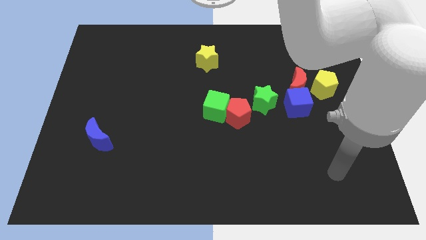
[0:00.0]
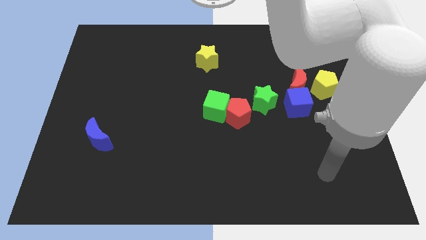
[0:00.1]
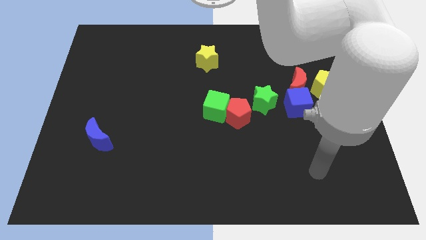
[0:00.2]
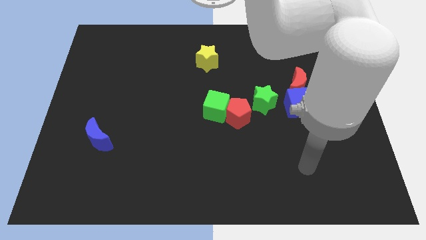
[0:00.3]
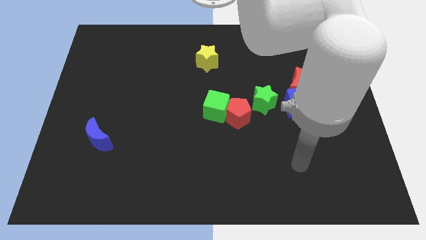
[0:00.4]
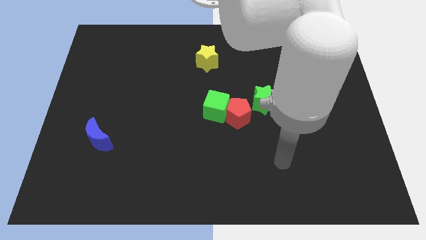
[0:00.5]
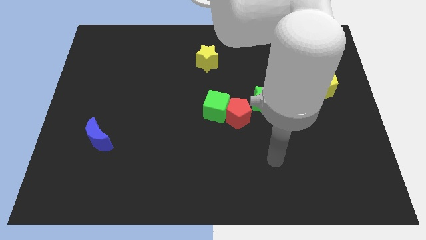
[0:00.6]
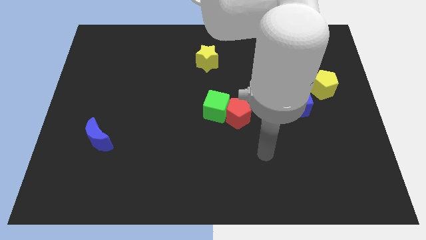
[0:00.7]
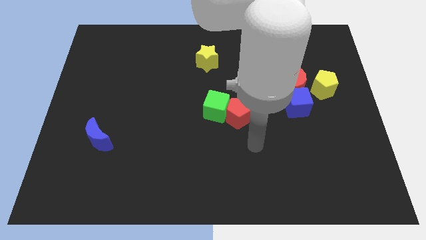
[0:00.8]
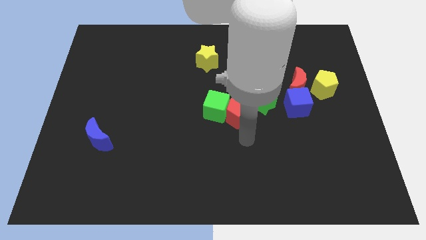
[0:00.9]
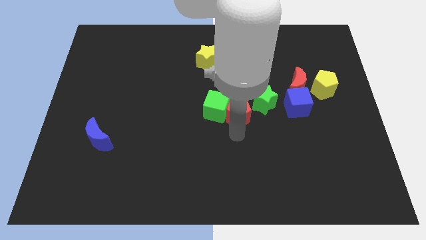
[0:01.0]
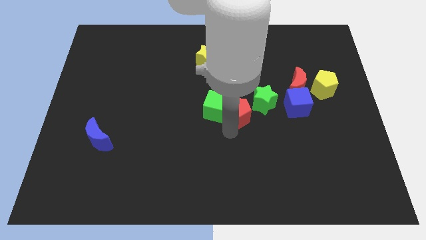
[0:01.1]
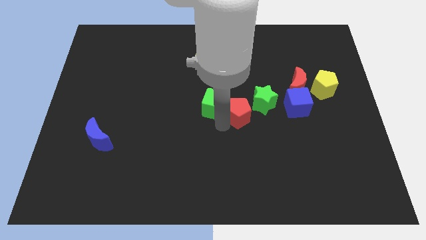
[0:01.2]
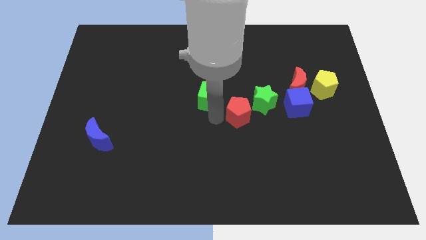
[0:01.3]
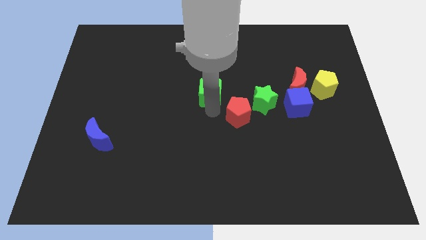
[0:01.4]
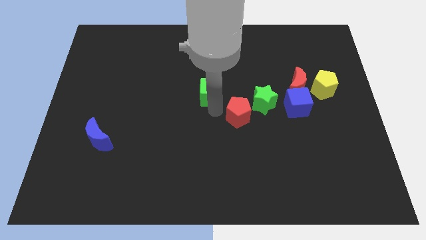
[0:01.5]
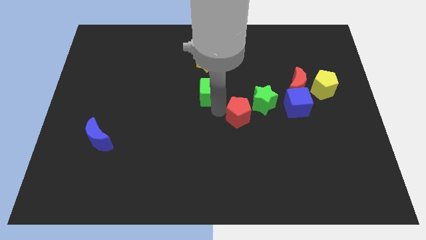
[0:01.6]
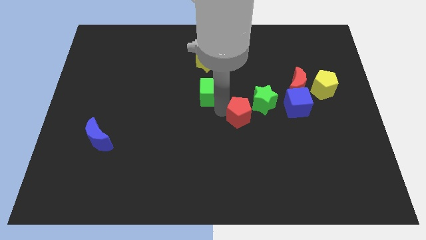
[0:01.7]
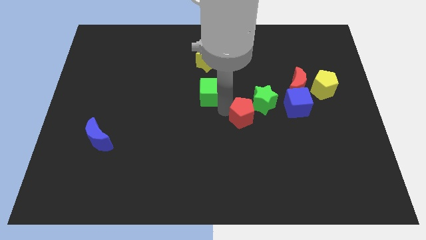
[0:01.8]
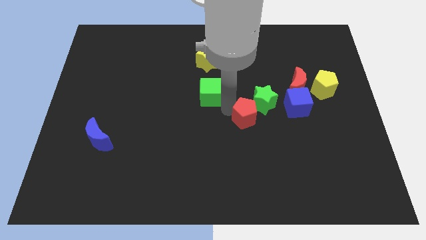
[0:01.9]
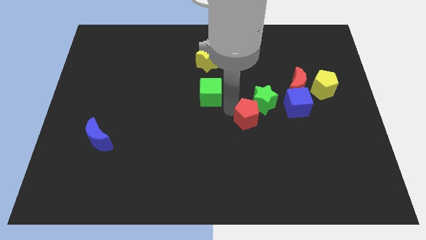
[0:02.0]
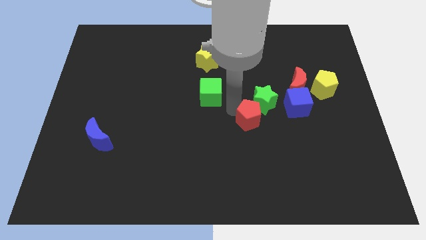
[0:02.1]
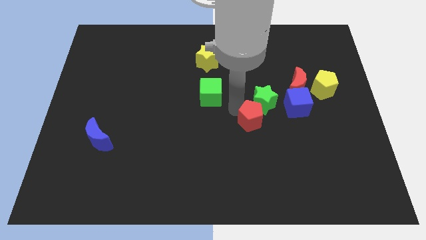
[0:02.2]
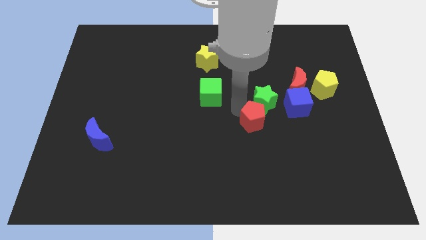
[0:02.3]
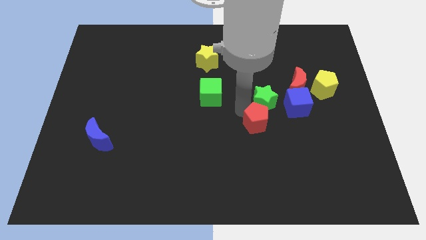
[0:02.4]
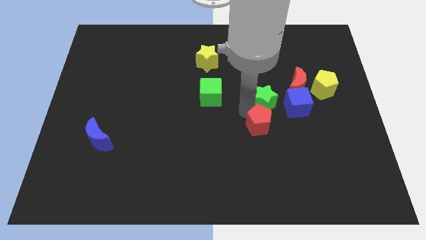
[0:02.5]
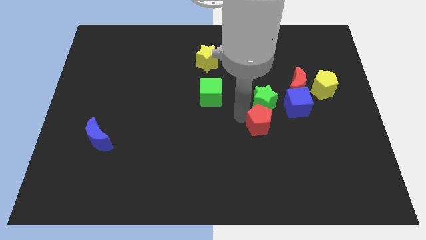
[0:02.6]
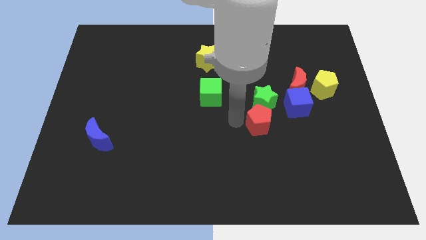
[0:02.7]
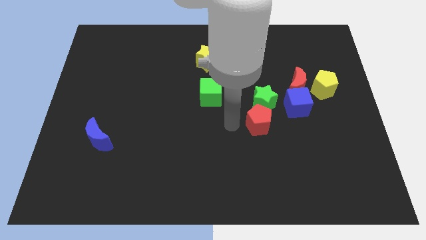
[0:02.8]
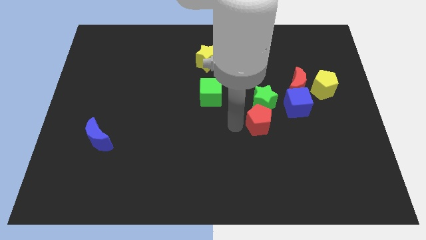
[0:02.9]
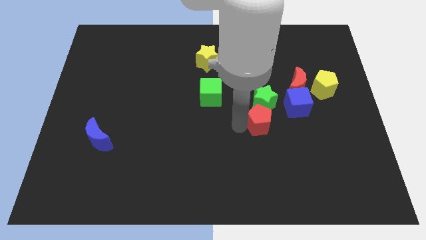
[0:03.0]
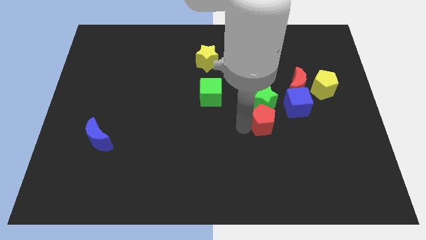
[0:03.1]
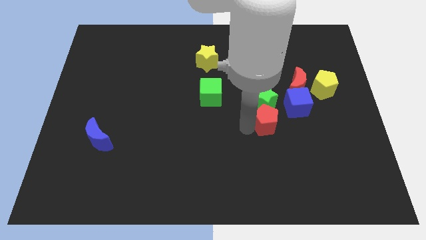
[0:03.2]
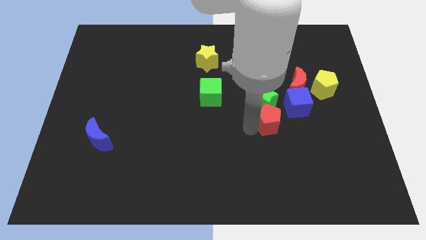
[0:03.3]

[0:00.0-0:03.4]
push the red pentagon a little bit right

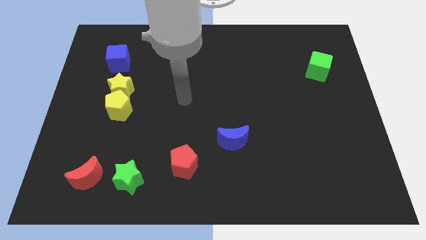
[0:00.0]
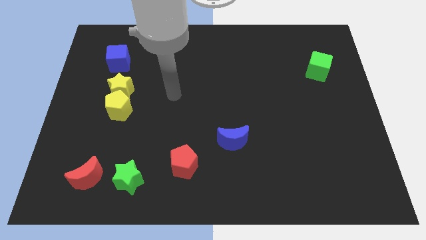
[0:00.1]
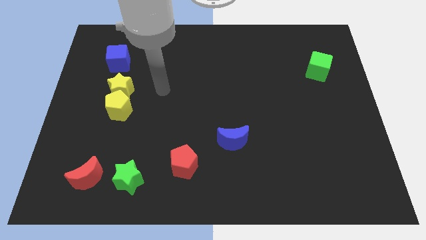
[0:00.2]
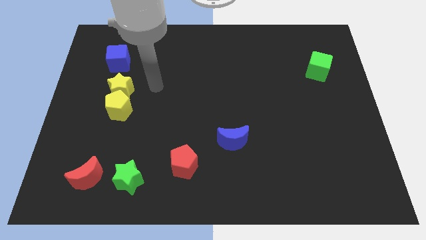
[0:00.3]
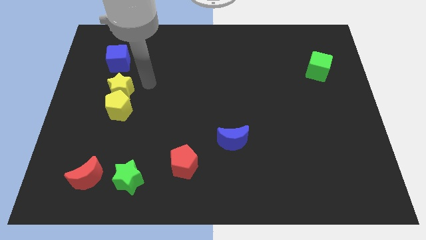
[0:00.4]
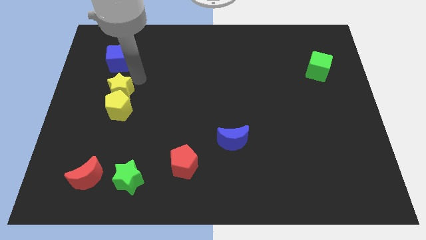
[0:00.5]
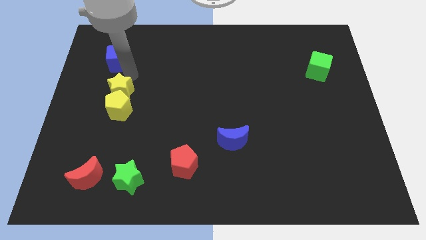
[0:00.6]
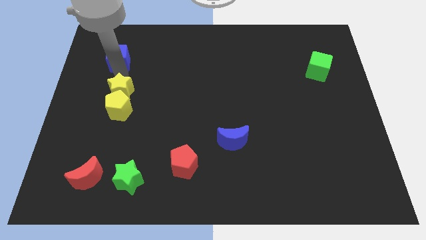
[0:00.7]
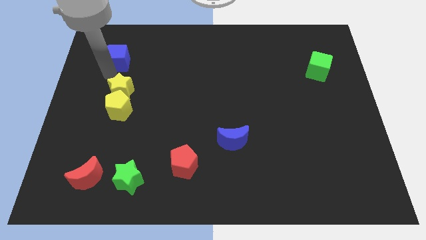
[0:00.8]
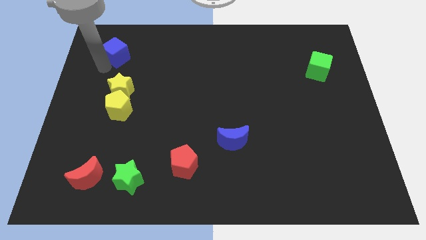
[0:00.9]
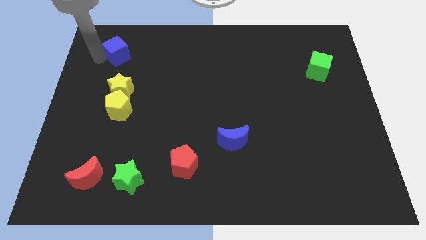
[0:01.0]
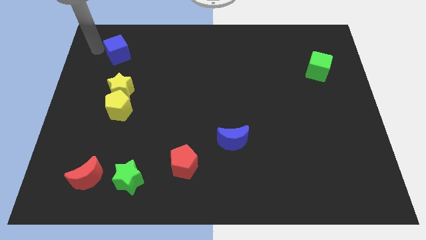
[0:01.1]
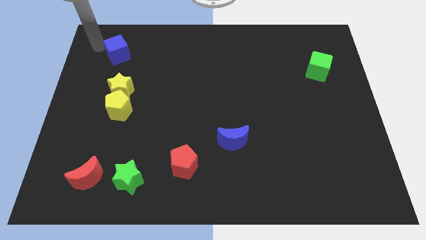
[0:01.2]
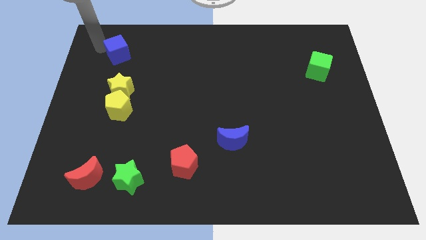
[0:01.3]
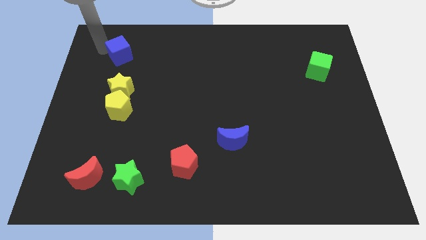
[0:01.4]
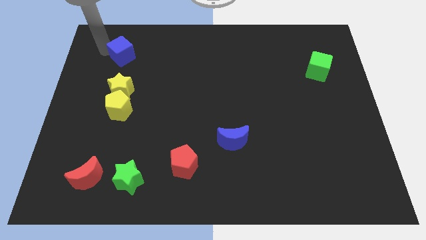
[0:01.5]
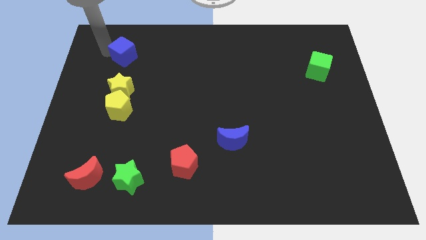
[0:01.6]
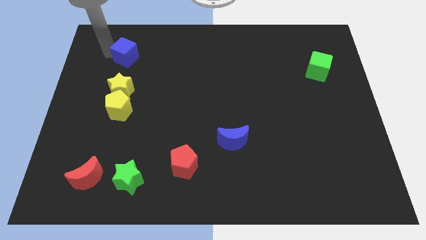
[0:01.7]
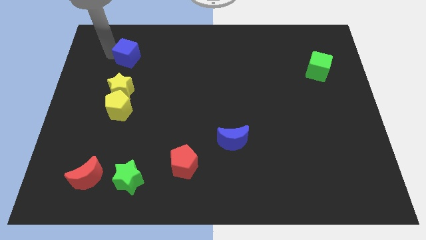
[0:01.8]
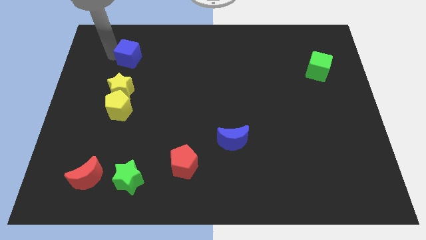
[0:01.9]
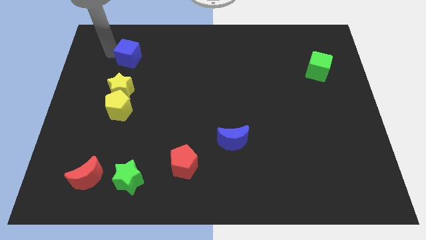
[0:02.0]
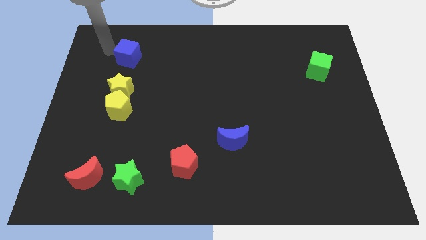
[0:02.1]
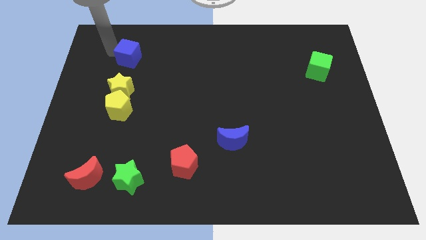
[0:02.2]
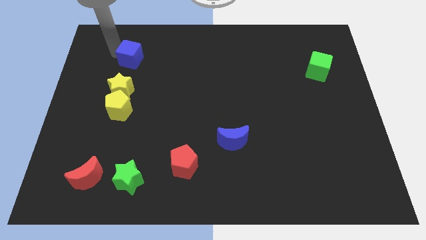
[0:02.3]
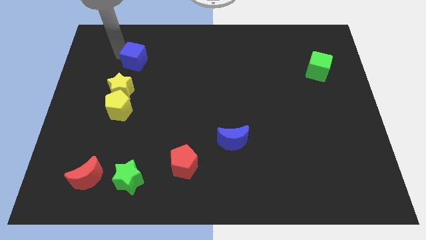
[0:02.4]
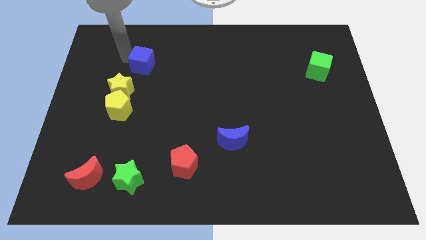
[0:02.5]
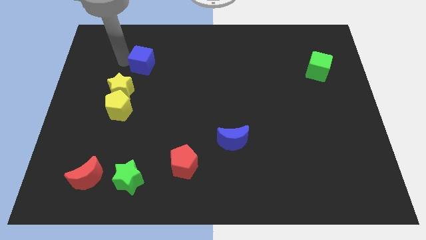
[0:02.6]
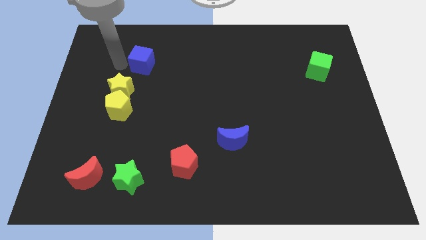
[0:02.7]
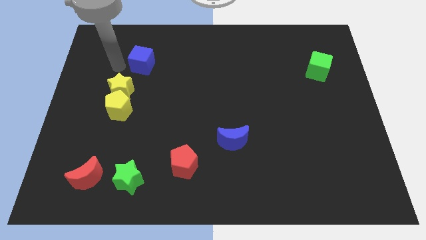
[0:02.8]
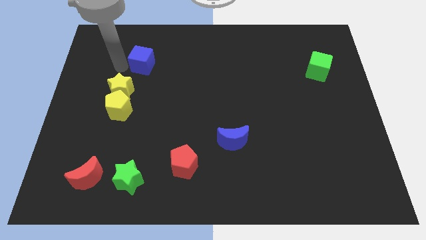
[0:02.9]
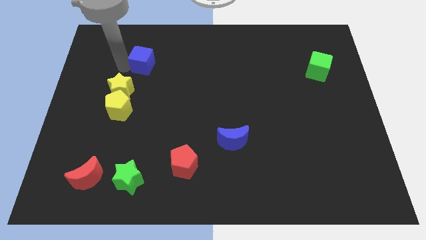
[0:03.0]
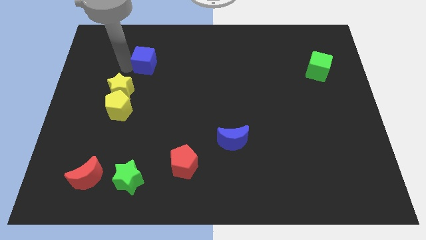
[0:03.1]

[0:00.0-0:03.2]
slide the blue cube somewhat right

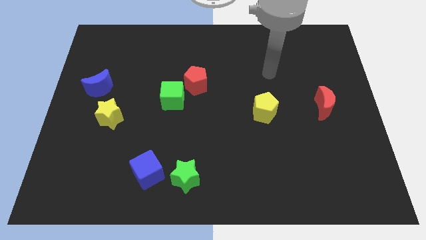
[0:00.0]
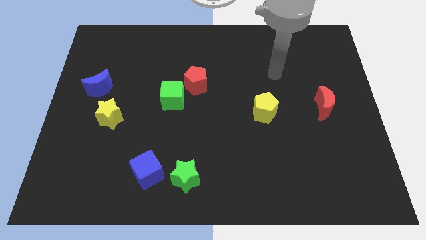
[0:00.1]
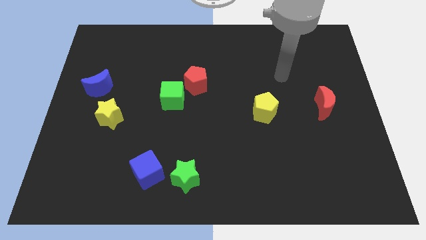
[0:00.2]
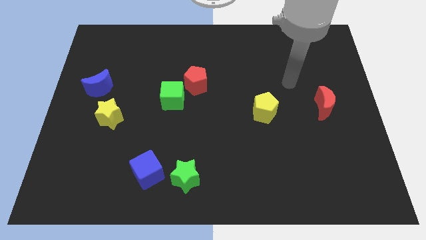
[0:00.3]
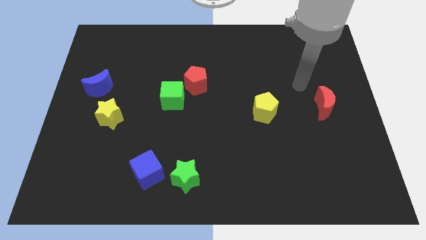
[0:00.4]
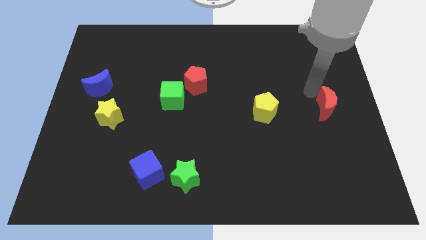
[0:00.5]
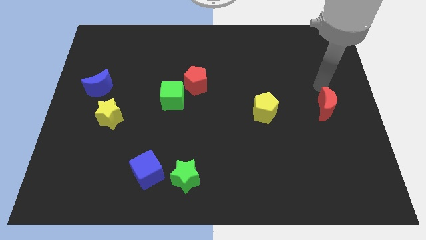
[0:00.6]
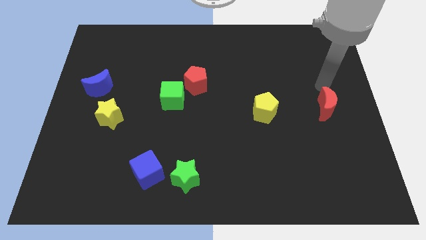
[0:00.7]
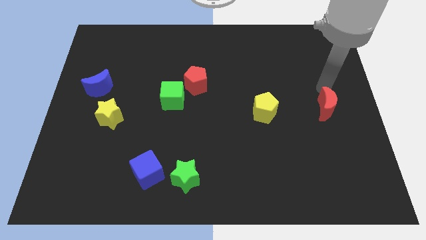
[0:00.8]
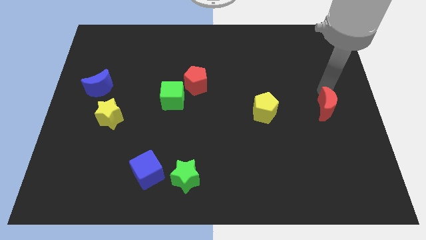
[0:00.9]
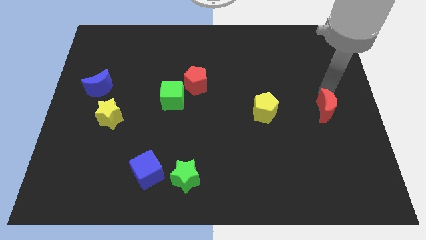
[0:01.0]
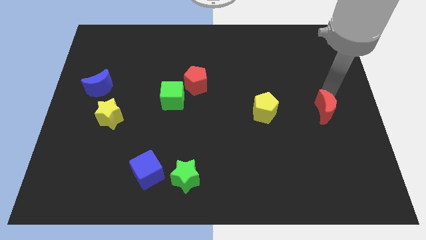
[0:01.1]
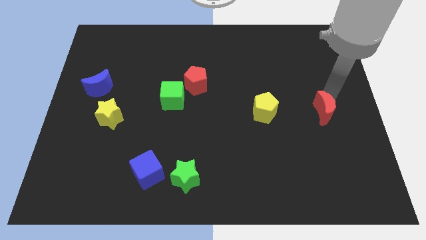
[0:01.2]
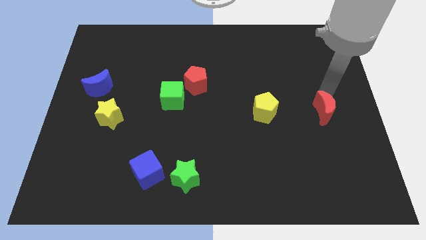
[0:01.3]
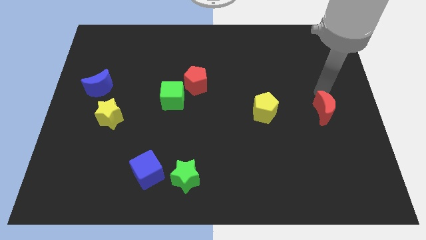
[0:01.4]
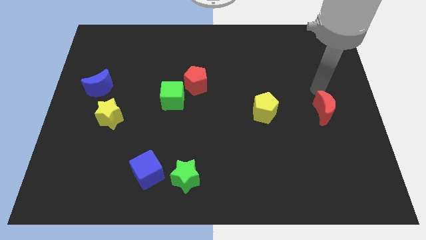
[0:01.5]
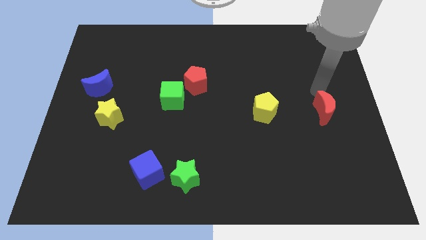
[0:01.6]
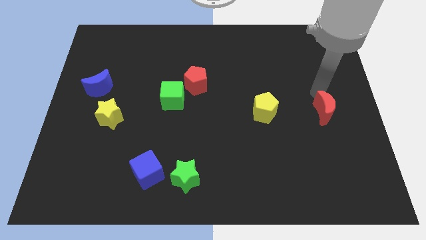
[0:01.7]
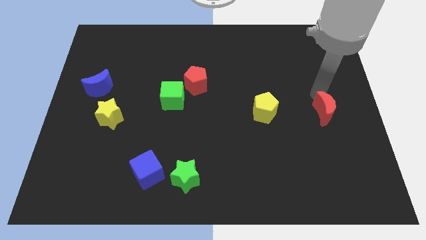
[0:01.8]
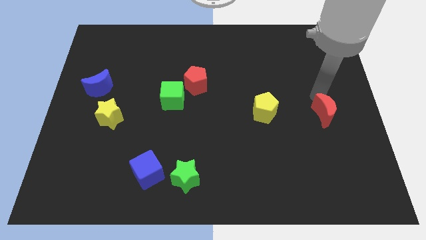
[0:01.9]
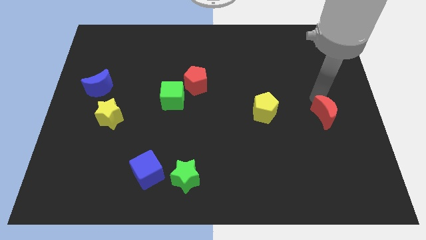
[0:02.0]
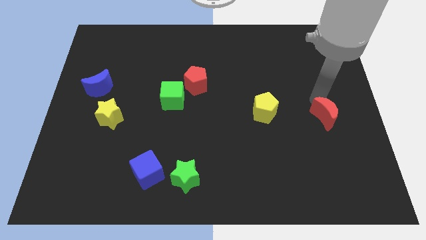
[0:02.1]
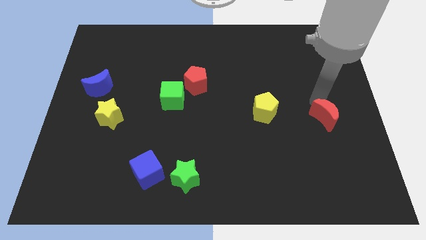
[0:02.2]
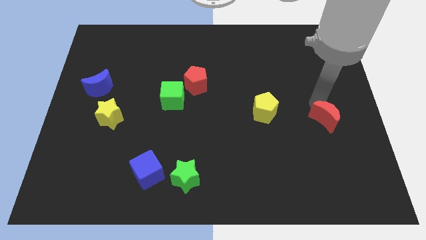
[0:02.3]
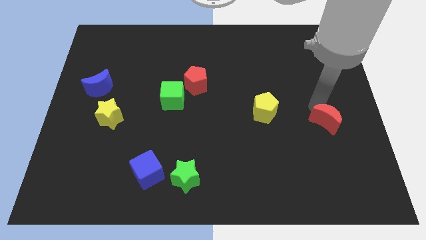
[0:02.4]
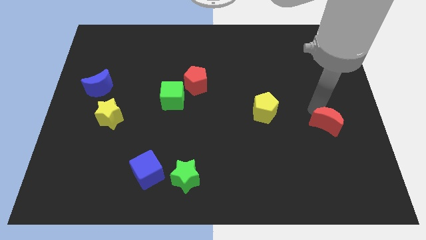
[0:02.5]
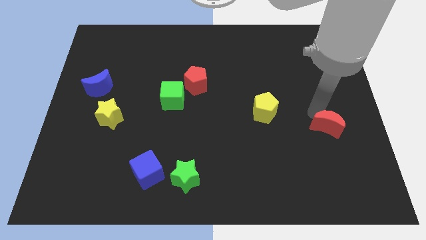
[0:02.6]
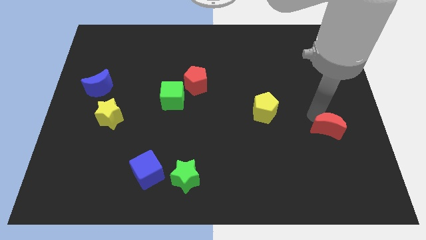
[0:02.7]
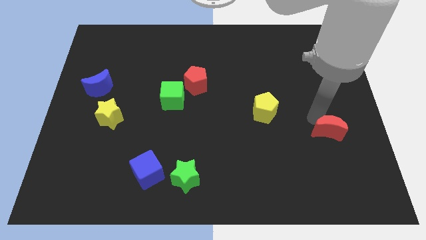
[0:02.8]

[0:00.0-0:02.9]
slightly move the red moon down
